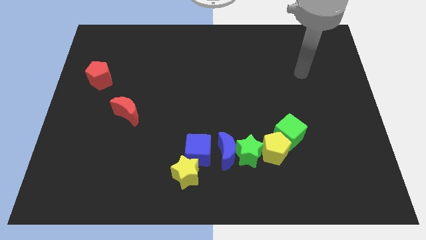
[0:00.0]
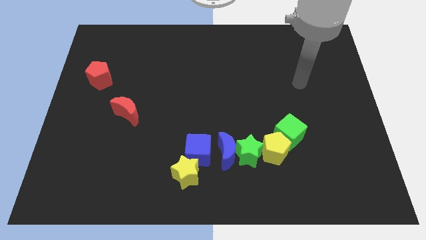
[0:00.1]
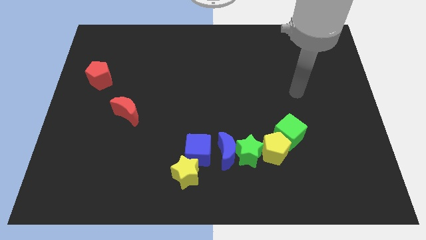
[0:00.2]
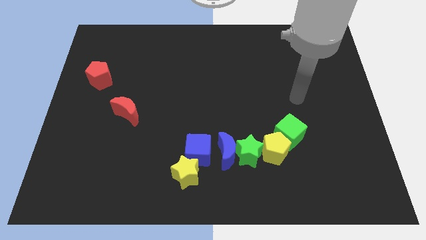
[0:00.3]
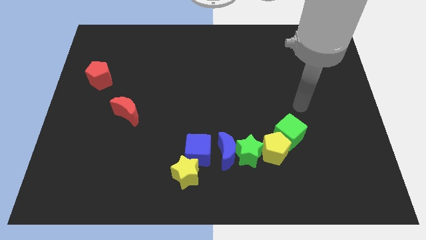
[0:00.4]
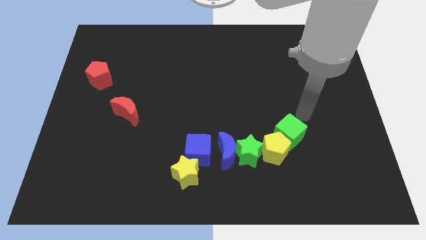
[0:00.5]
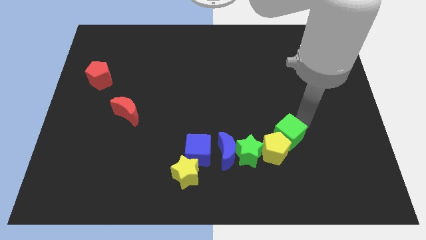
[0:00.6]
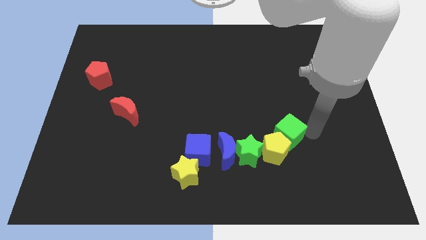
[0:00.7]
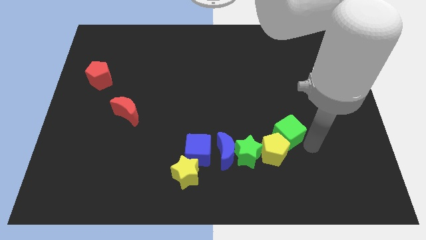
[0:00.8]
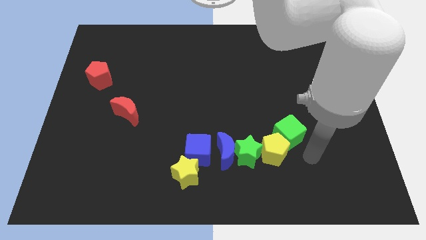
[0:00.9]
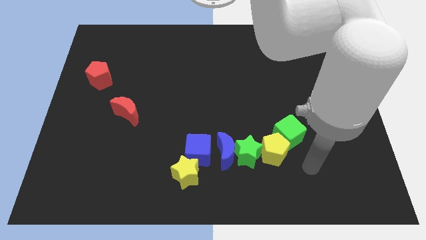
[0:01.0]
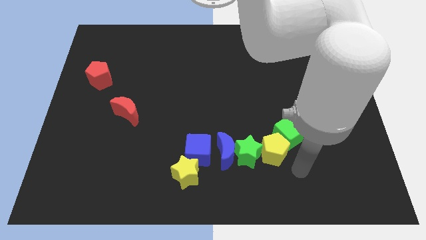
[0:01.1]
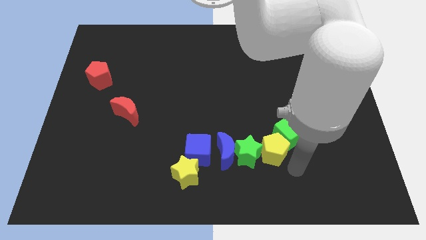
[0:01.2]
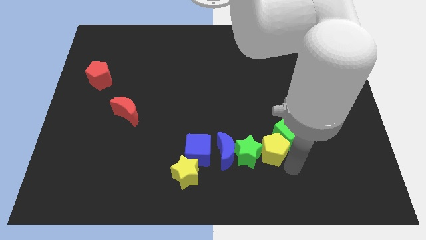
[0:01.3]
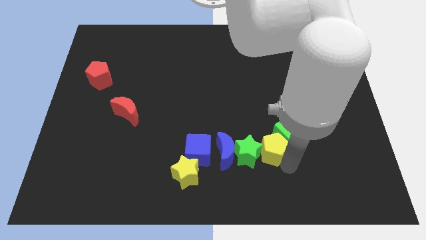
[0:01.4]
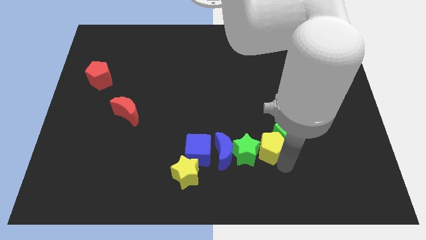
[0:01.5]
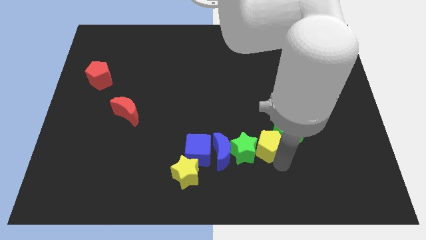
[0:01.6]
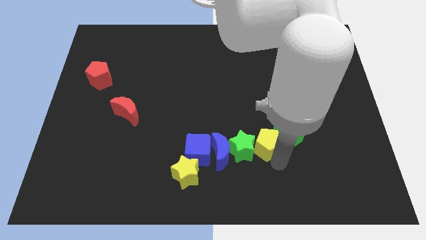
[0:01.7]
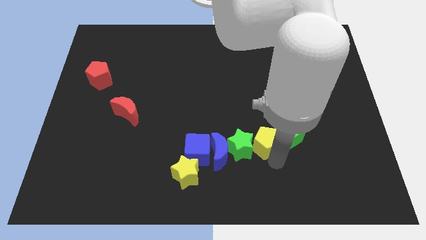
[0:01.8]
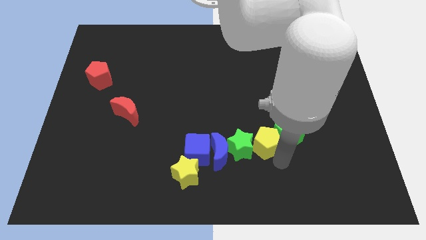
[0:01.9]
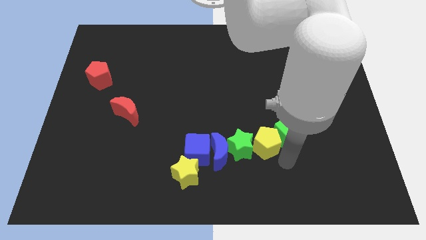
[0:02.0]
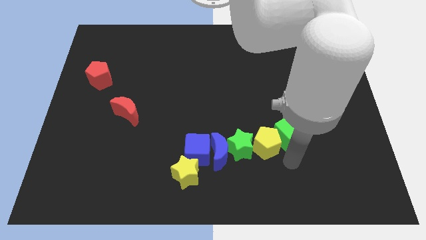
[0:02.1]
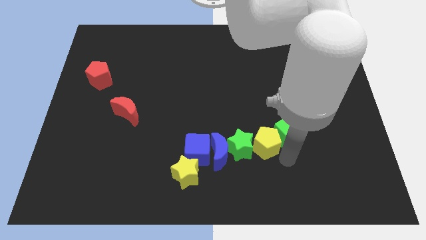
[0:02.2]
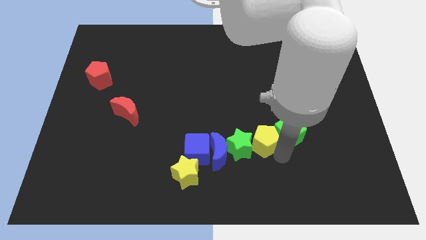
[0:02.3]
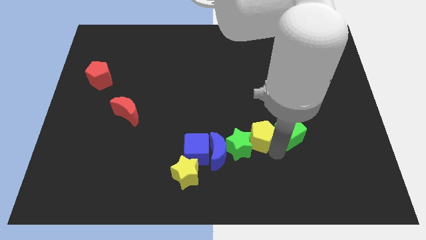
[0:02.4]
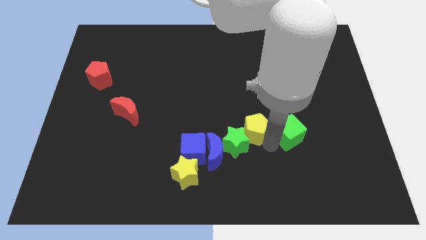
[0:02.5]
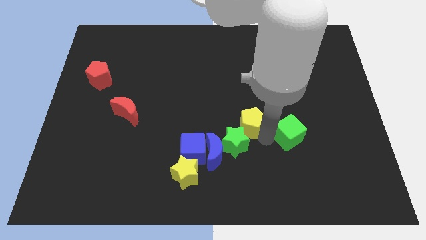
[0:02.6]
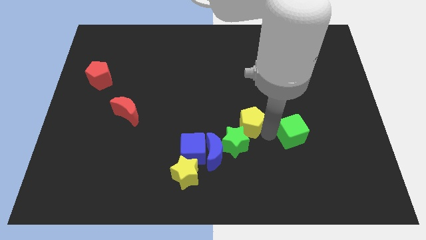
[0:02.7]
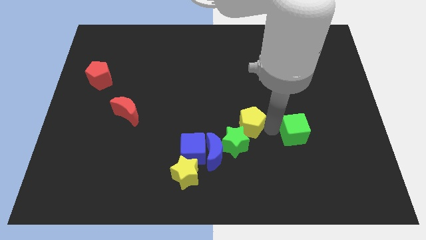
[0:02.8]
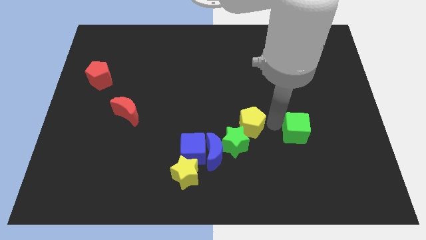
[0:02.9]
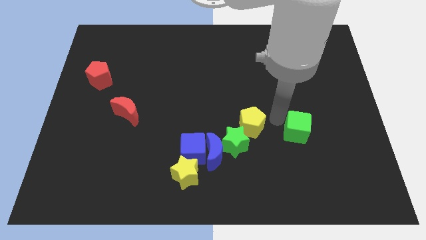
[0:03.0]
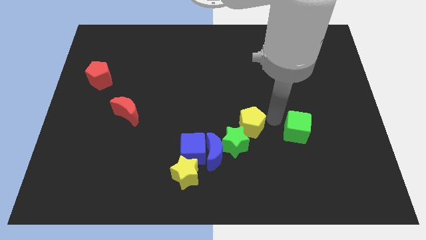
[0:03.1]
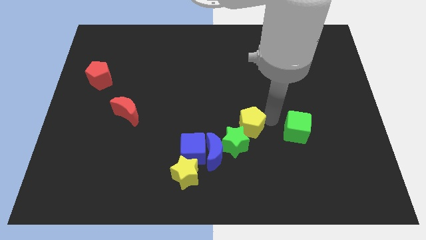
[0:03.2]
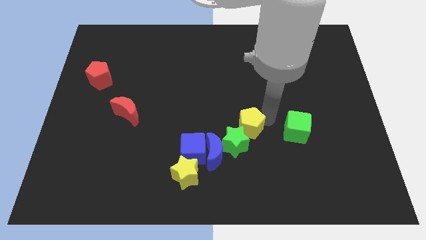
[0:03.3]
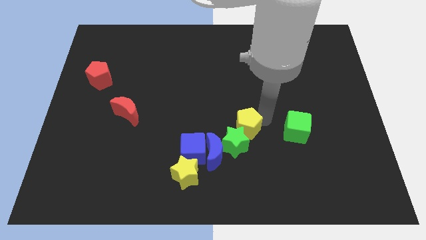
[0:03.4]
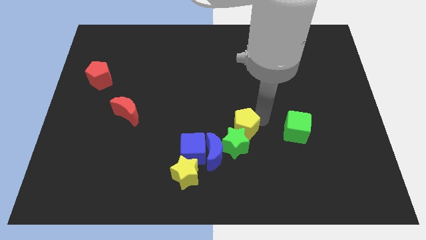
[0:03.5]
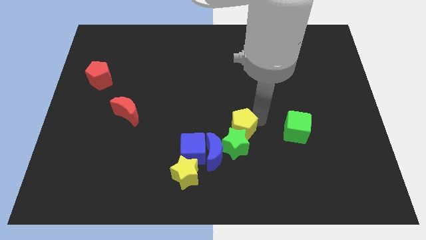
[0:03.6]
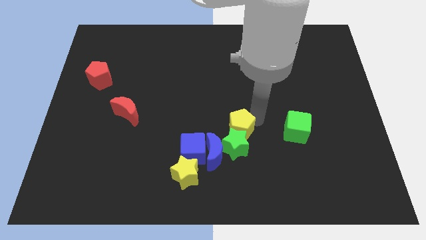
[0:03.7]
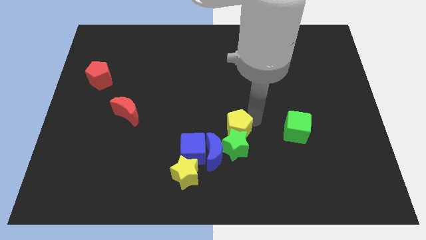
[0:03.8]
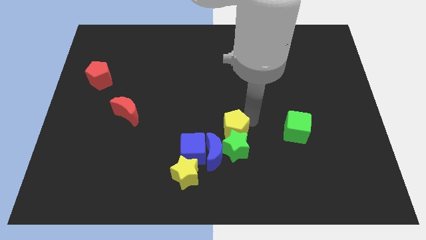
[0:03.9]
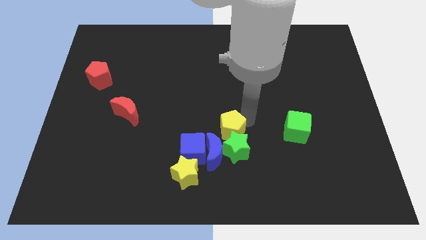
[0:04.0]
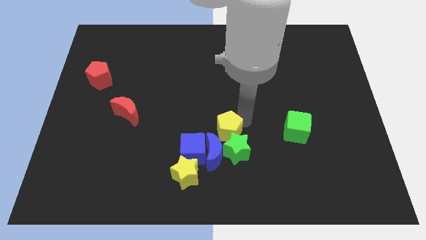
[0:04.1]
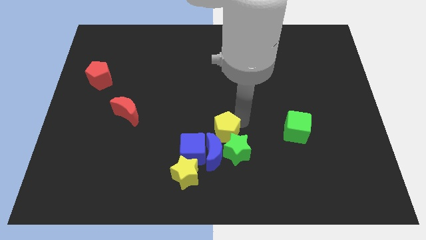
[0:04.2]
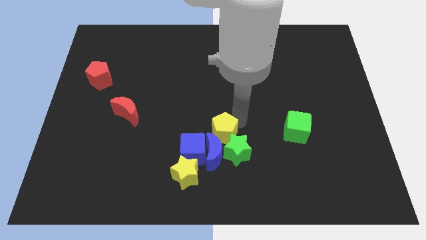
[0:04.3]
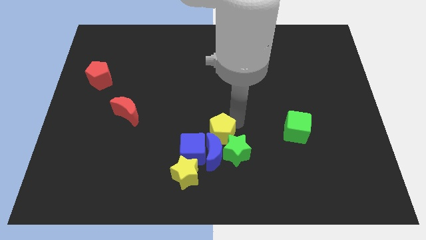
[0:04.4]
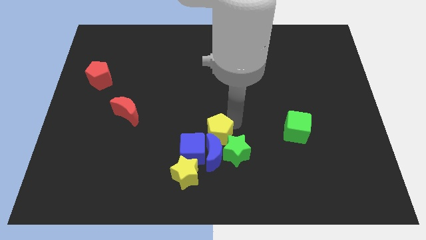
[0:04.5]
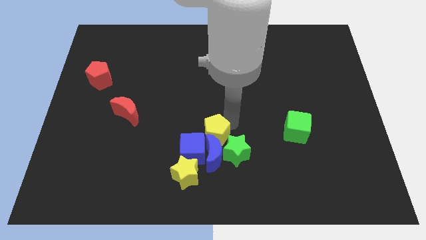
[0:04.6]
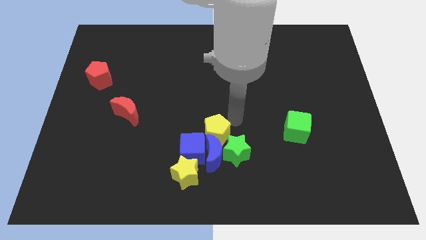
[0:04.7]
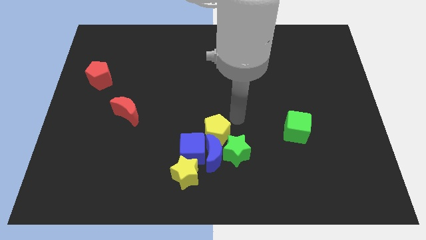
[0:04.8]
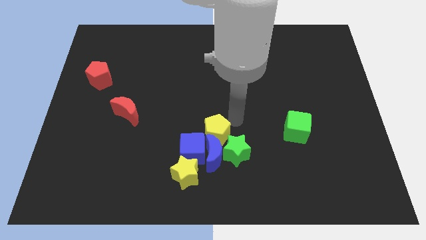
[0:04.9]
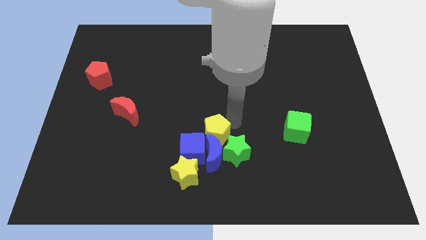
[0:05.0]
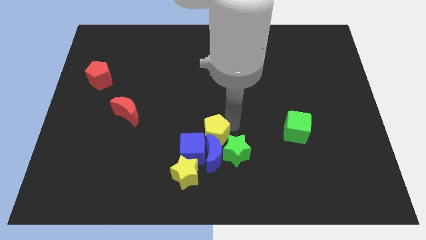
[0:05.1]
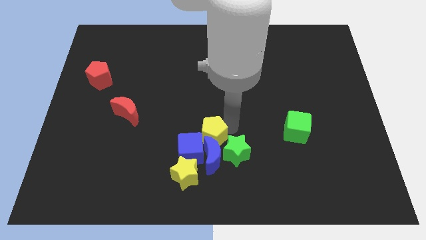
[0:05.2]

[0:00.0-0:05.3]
put the yellow pentagon towards the blue cube

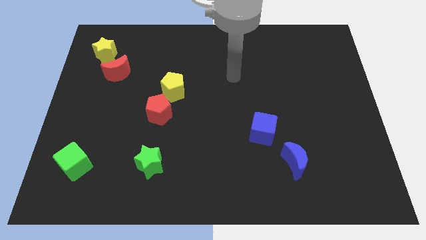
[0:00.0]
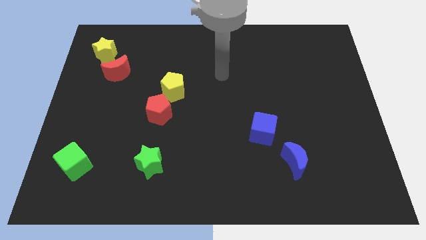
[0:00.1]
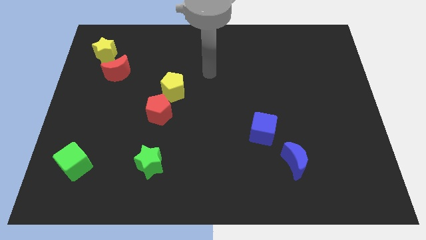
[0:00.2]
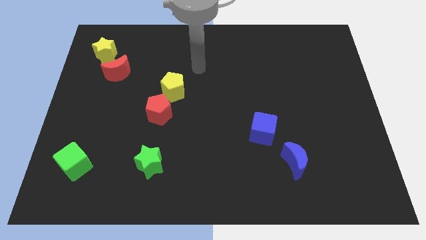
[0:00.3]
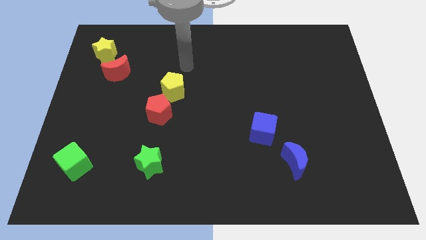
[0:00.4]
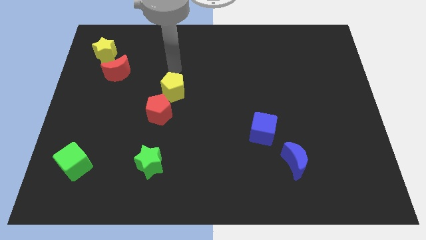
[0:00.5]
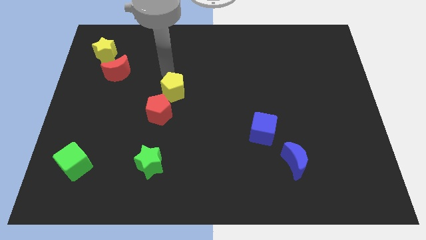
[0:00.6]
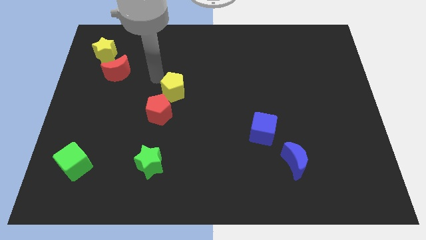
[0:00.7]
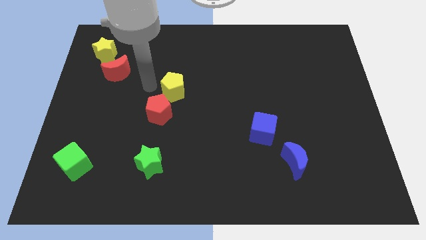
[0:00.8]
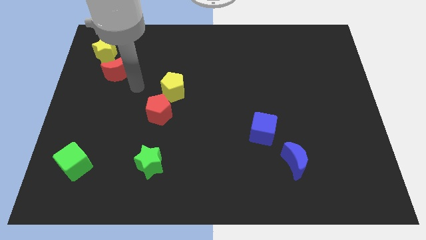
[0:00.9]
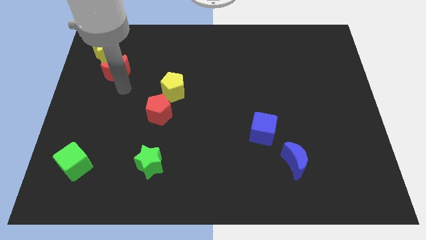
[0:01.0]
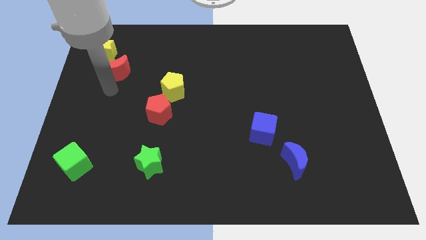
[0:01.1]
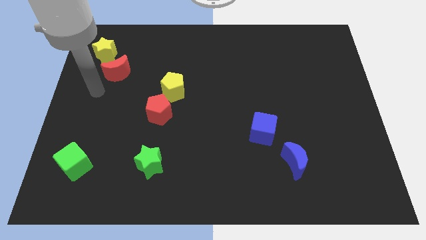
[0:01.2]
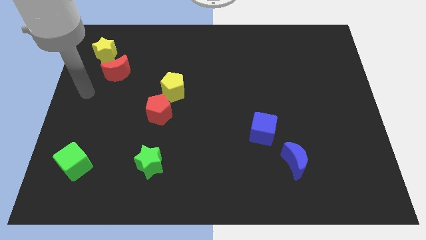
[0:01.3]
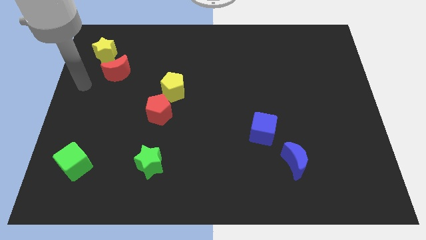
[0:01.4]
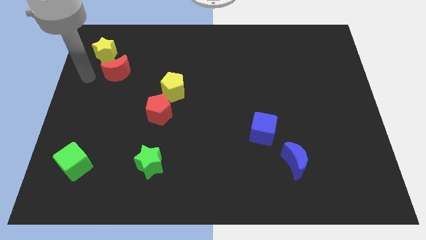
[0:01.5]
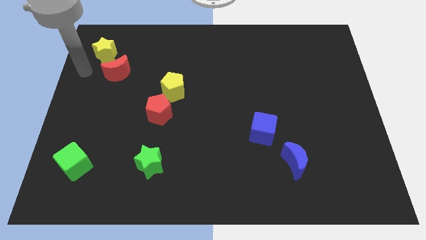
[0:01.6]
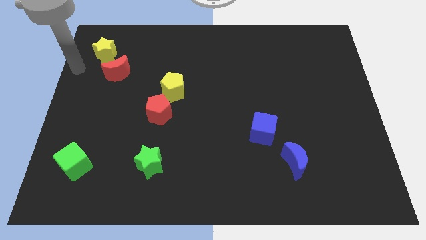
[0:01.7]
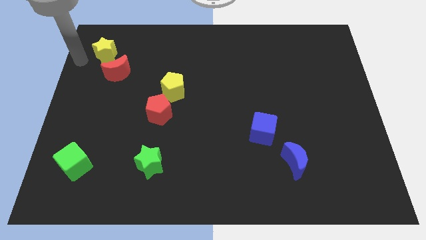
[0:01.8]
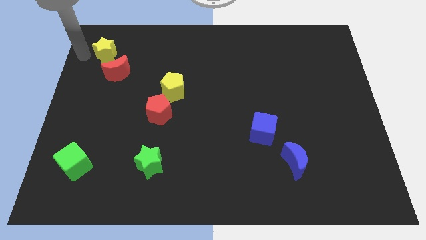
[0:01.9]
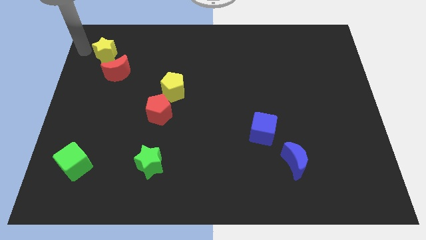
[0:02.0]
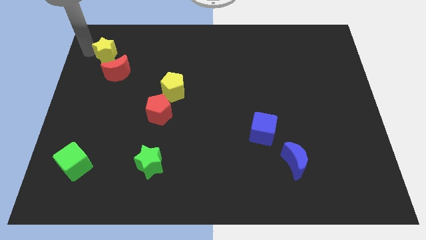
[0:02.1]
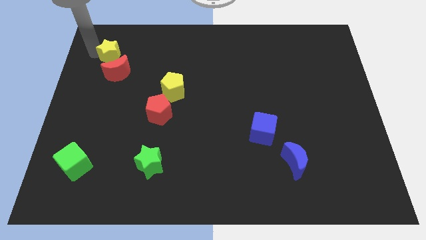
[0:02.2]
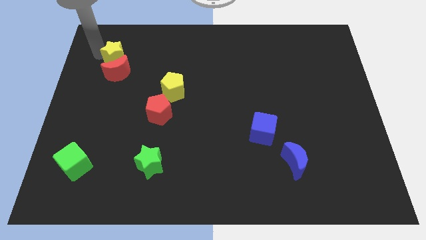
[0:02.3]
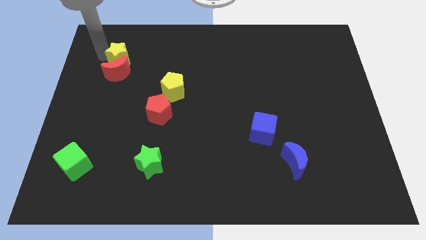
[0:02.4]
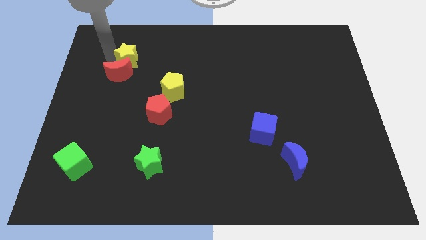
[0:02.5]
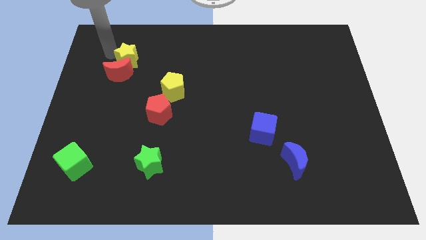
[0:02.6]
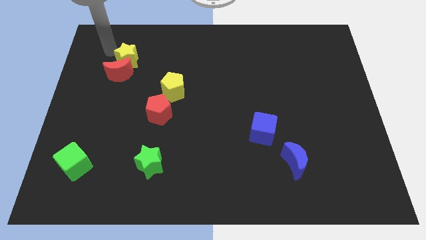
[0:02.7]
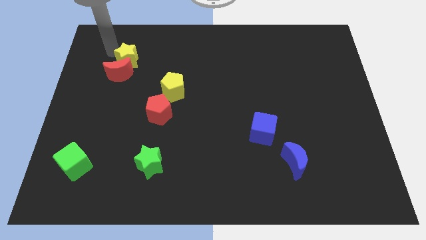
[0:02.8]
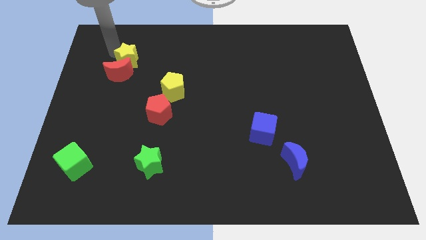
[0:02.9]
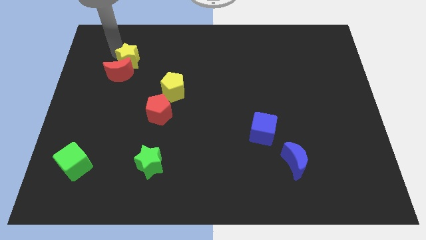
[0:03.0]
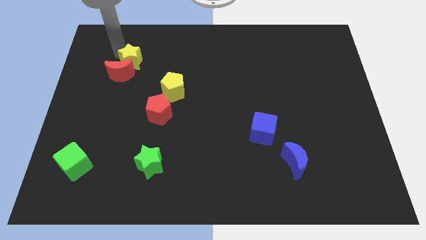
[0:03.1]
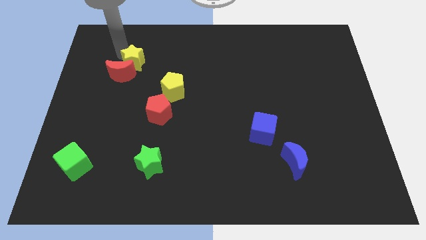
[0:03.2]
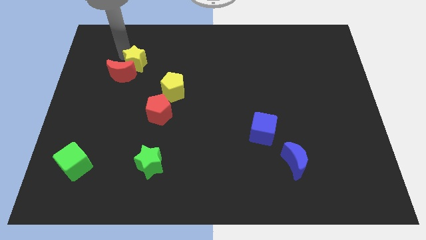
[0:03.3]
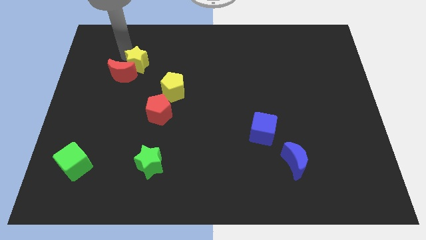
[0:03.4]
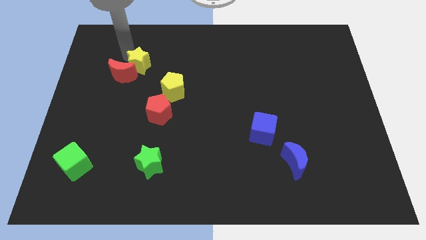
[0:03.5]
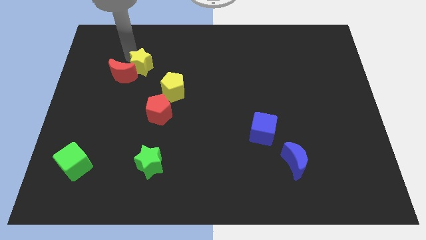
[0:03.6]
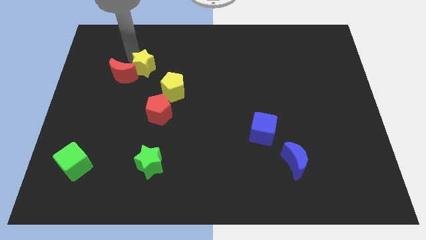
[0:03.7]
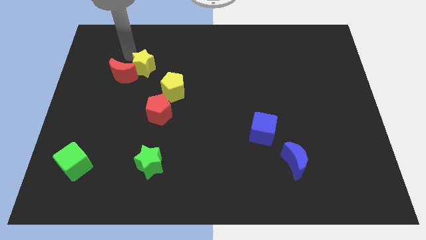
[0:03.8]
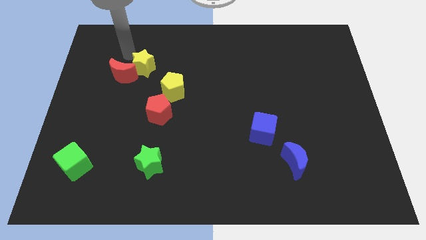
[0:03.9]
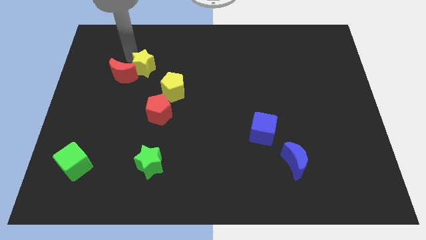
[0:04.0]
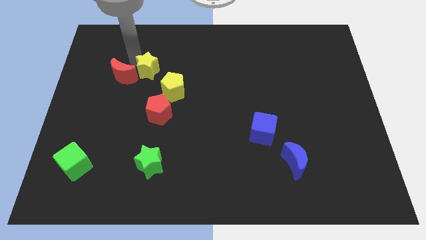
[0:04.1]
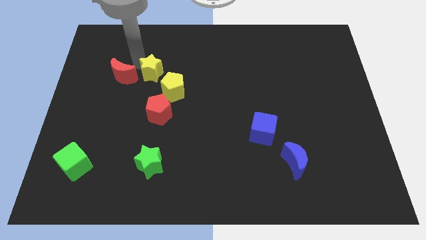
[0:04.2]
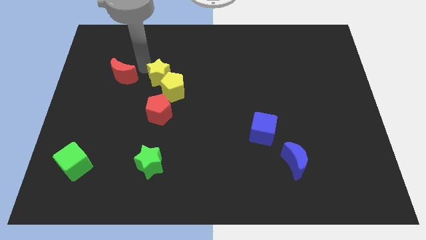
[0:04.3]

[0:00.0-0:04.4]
slide the yellow star close to the yellow pentagon
